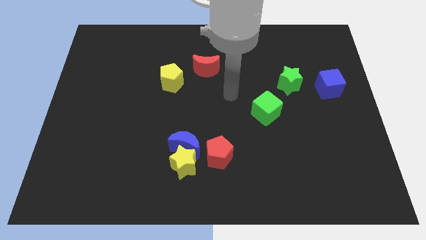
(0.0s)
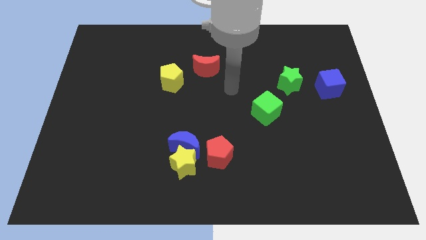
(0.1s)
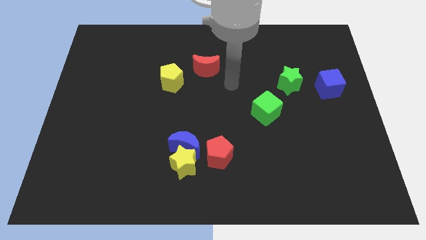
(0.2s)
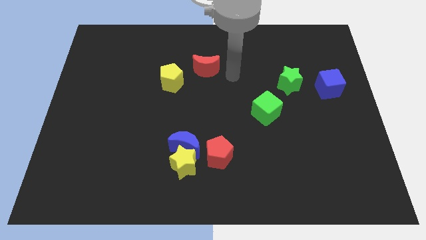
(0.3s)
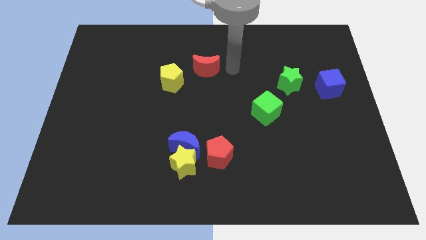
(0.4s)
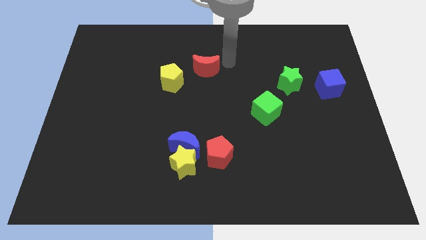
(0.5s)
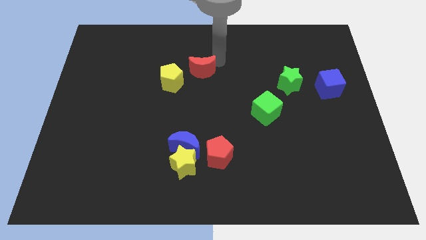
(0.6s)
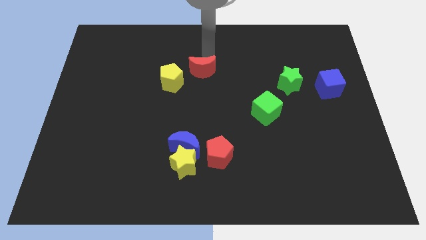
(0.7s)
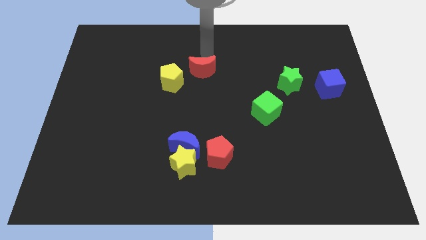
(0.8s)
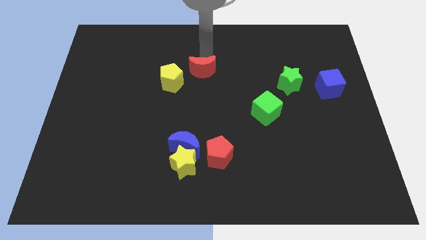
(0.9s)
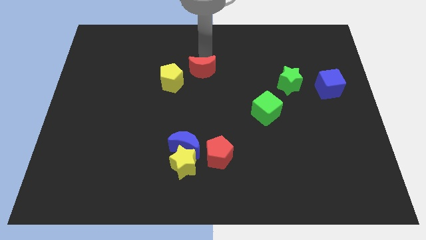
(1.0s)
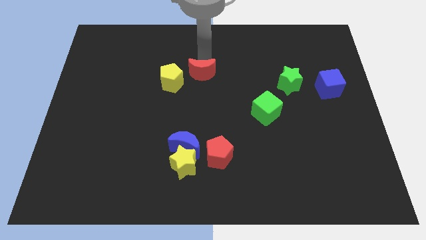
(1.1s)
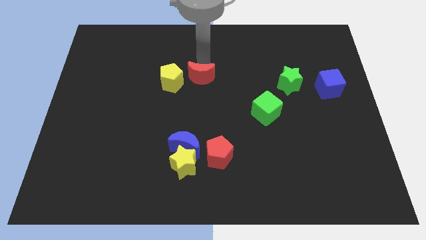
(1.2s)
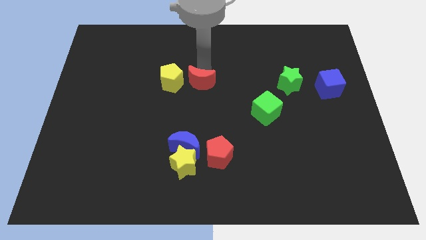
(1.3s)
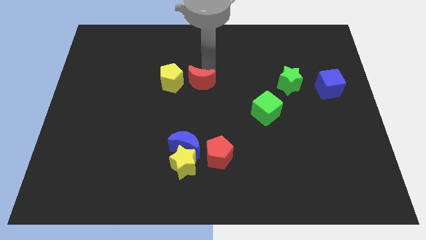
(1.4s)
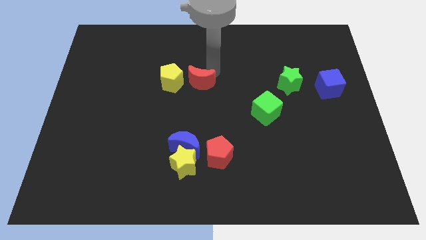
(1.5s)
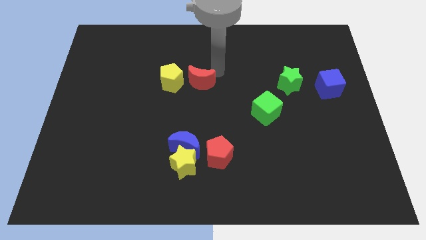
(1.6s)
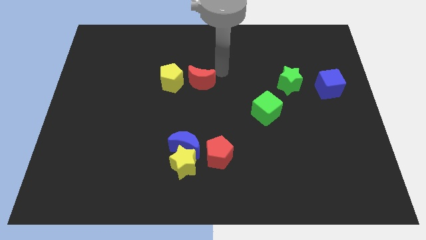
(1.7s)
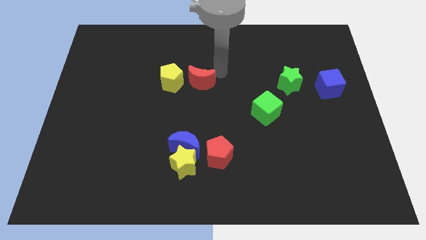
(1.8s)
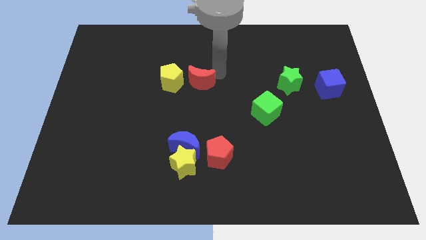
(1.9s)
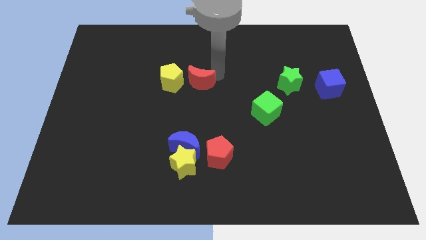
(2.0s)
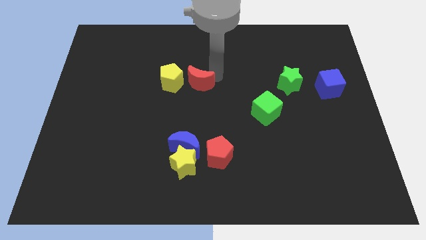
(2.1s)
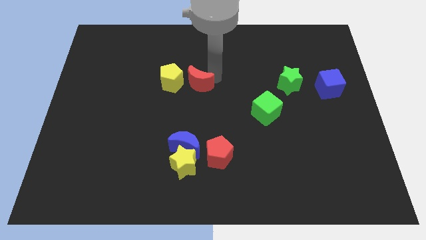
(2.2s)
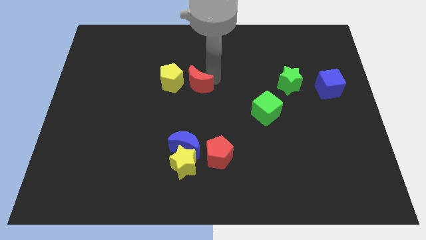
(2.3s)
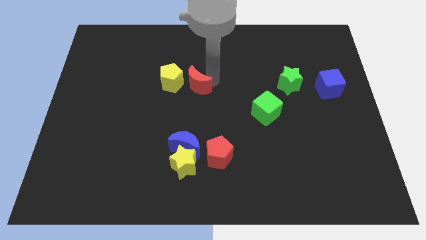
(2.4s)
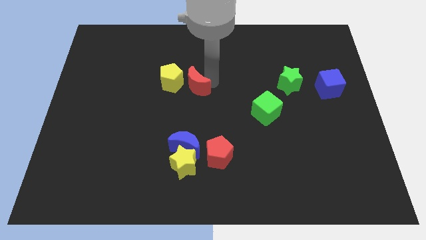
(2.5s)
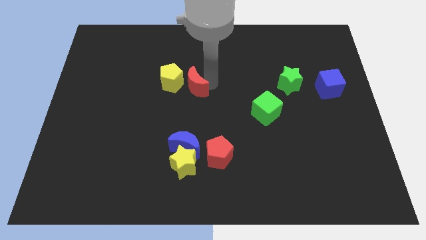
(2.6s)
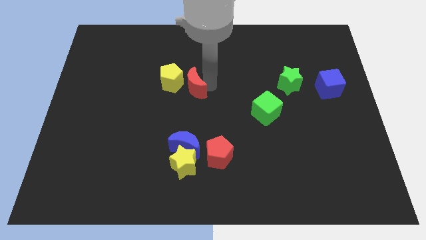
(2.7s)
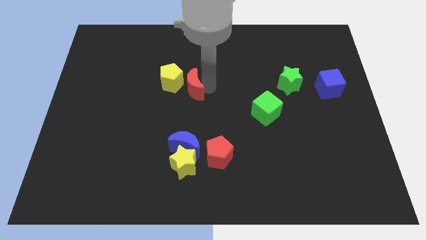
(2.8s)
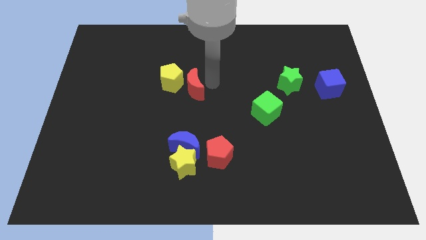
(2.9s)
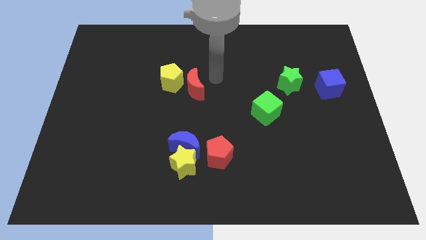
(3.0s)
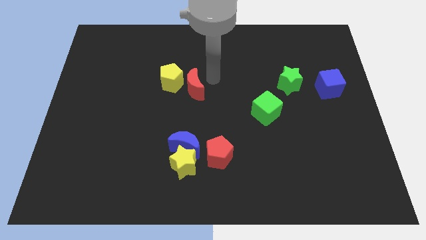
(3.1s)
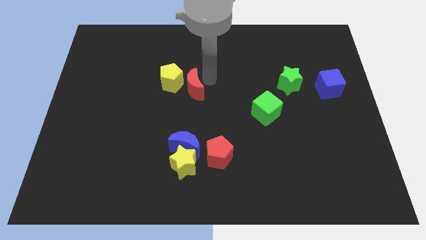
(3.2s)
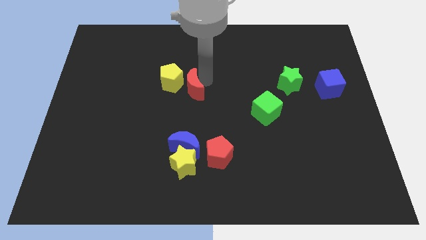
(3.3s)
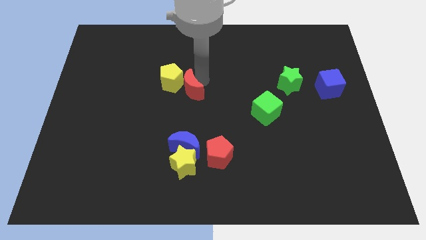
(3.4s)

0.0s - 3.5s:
move the red moon a little downwards and to the left

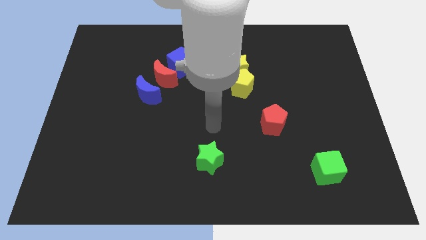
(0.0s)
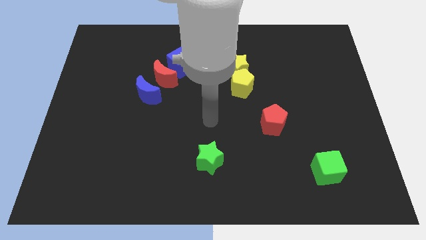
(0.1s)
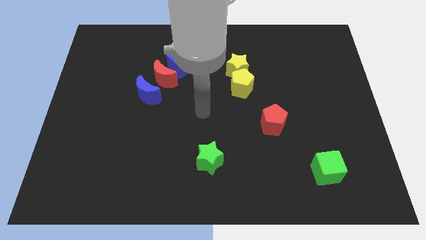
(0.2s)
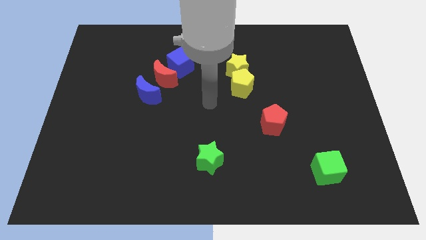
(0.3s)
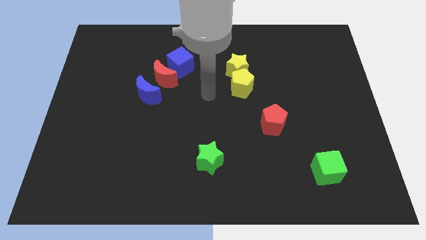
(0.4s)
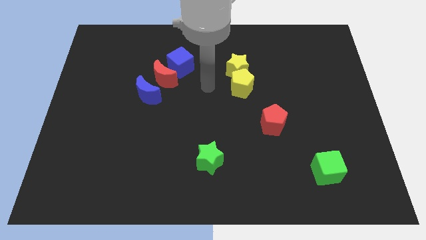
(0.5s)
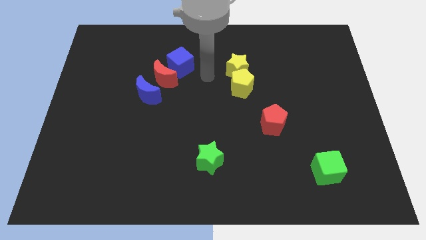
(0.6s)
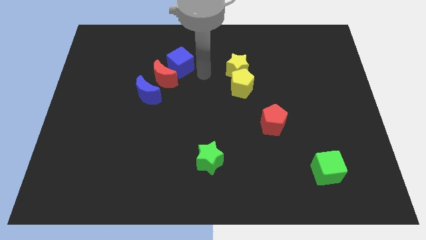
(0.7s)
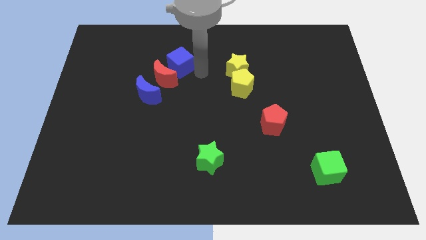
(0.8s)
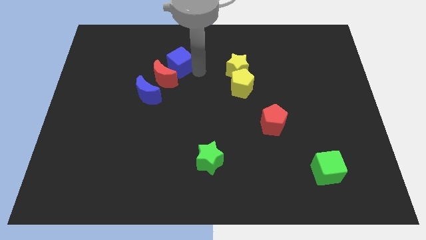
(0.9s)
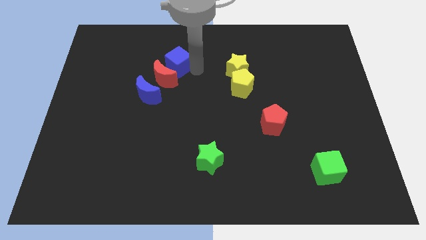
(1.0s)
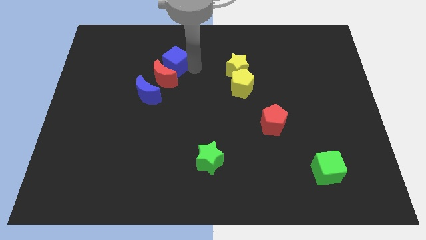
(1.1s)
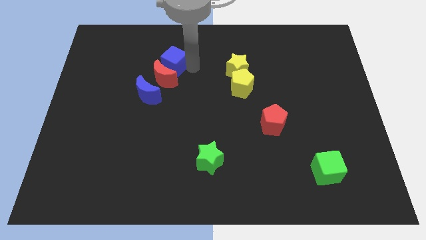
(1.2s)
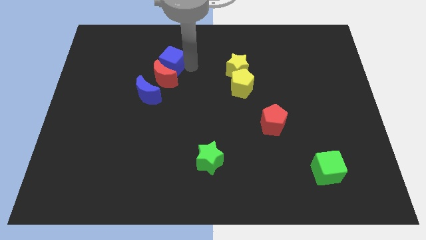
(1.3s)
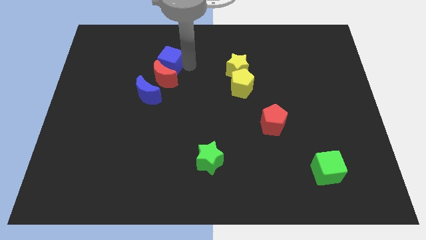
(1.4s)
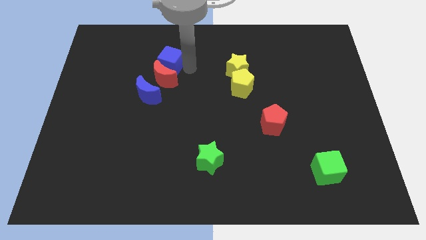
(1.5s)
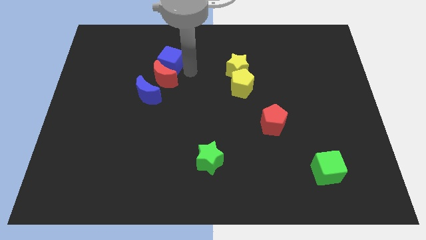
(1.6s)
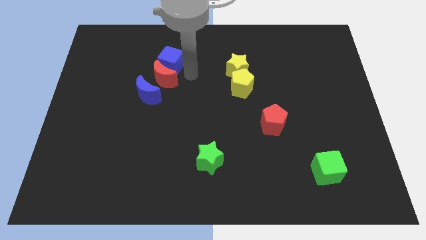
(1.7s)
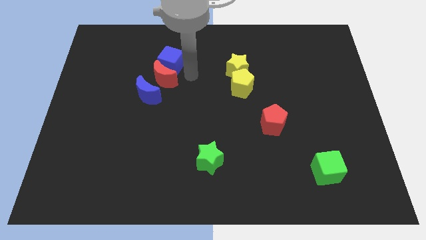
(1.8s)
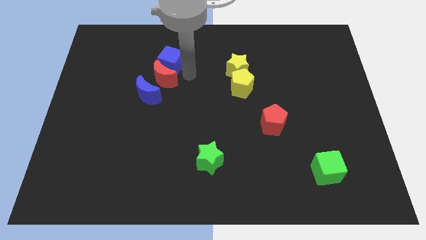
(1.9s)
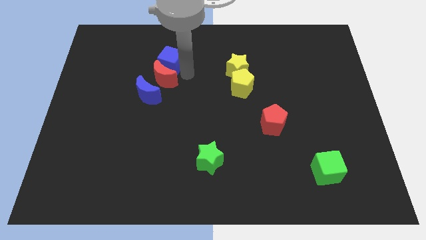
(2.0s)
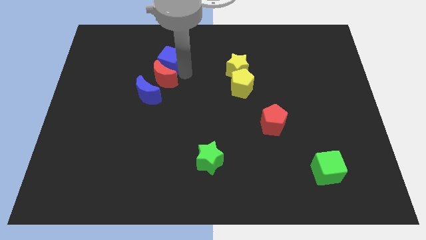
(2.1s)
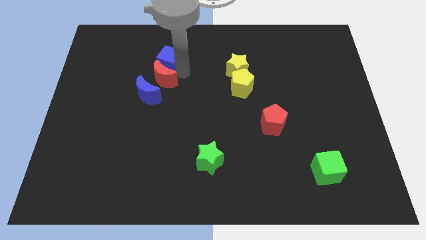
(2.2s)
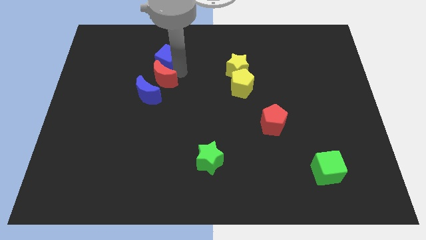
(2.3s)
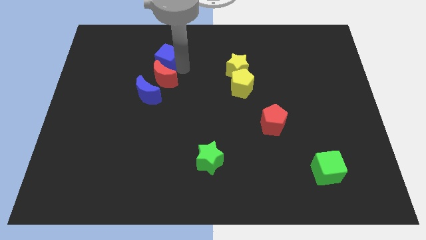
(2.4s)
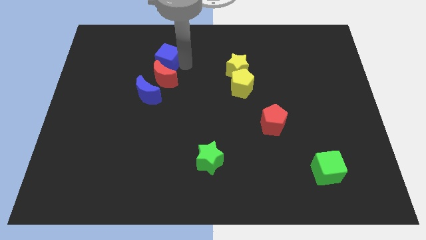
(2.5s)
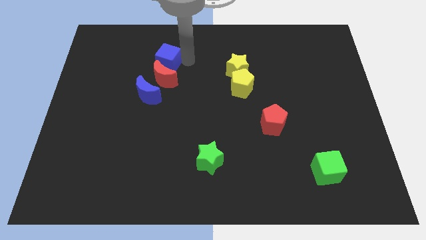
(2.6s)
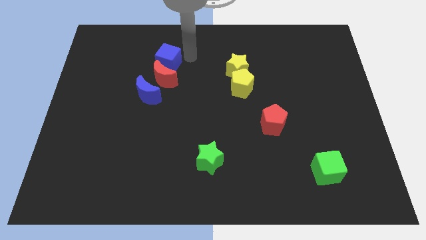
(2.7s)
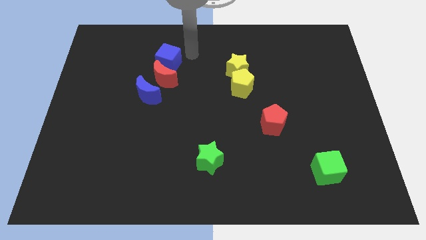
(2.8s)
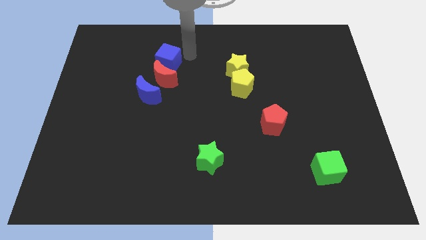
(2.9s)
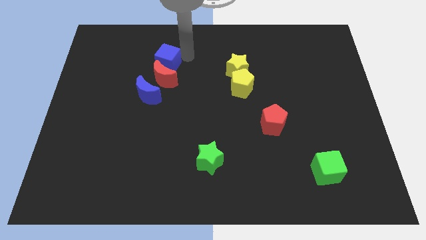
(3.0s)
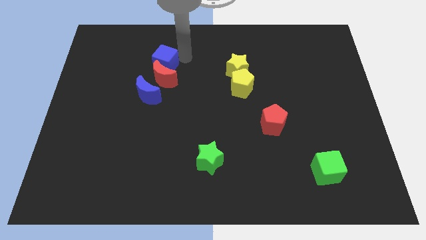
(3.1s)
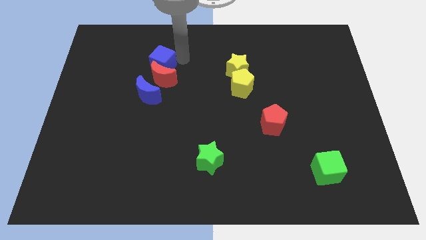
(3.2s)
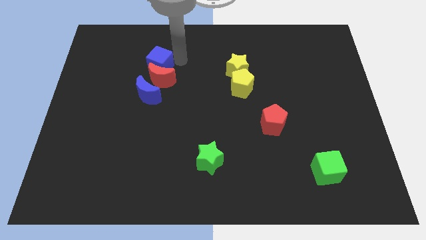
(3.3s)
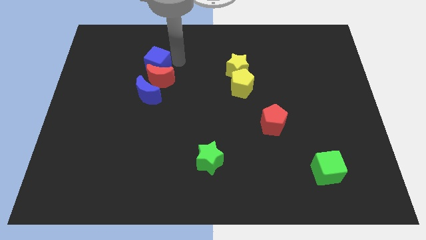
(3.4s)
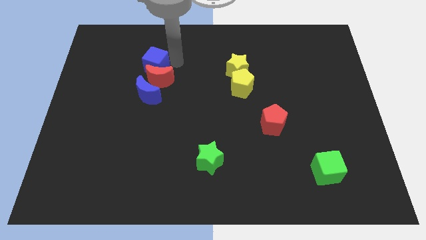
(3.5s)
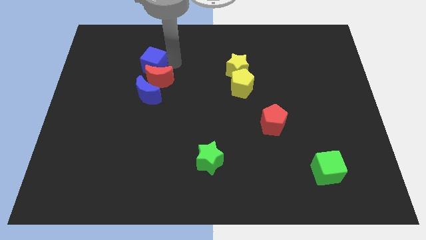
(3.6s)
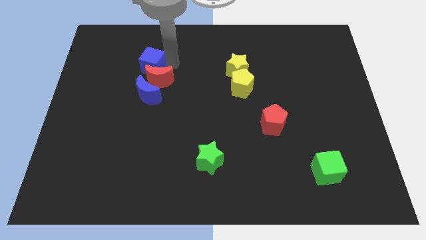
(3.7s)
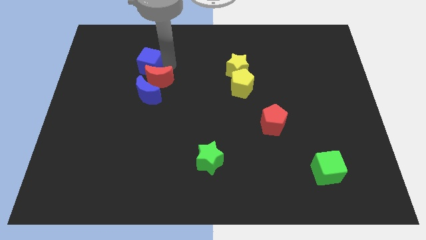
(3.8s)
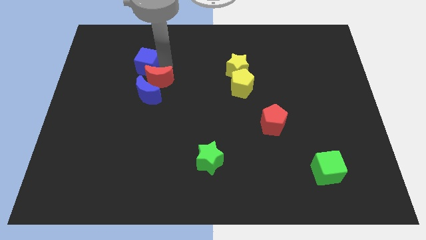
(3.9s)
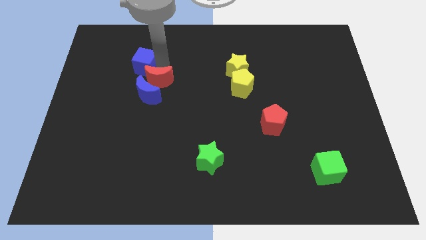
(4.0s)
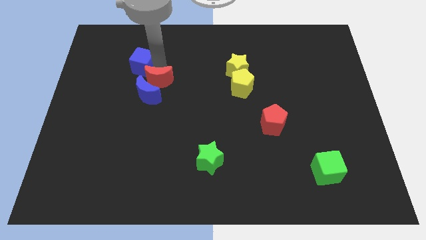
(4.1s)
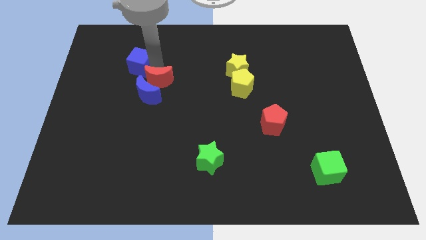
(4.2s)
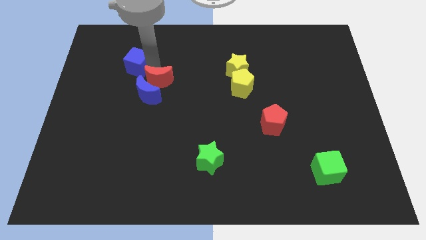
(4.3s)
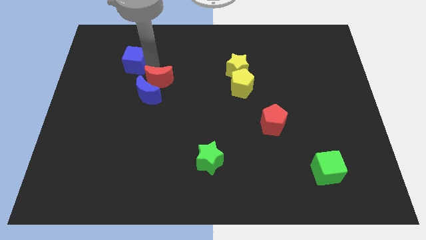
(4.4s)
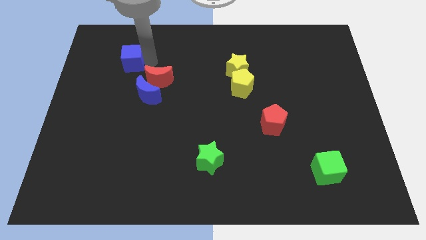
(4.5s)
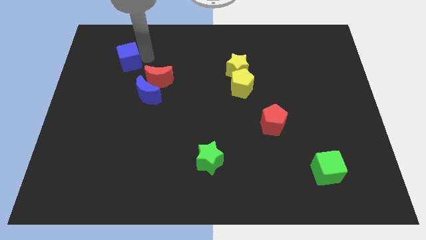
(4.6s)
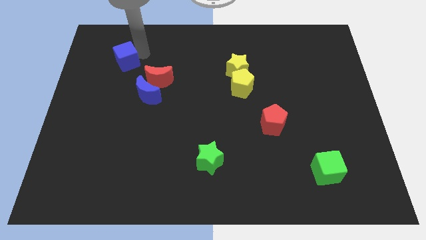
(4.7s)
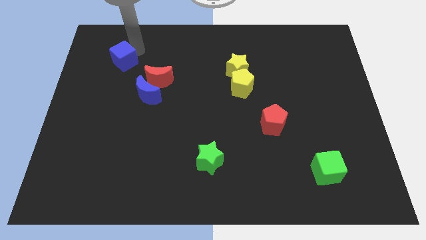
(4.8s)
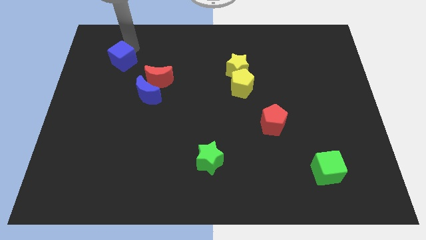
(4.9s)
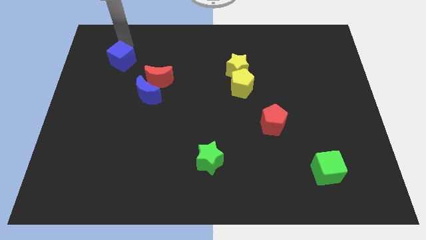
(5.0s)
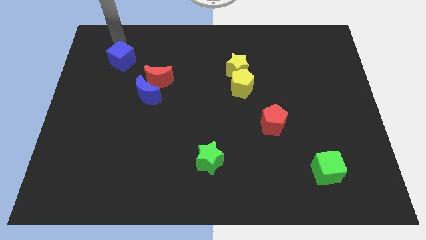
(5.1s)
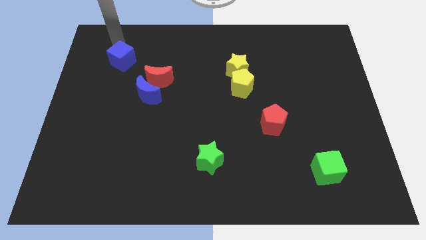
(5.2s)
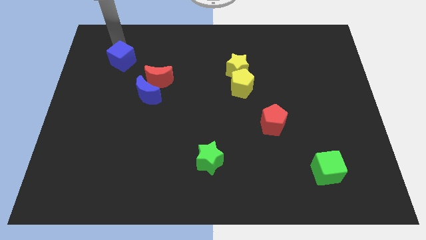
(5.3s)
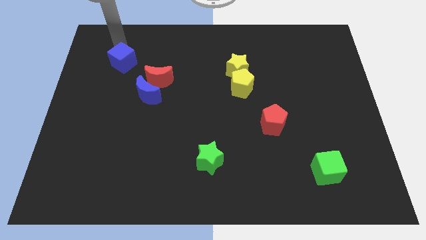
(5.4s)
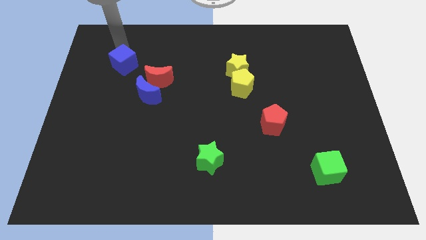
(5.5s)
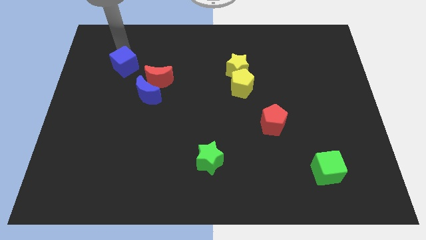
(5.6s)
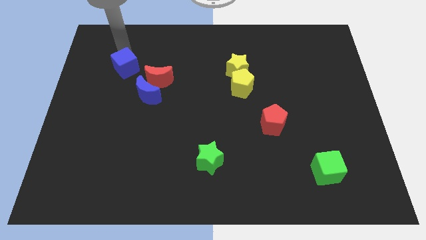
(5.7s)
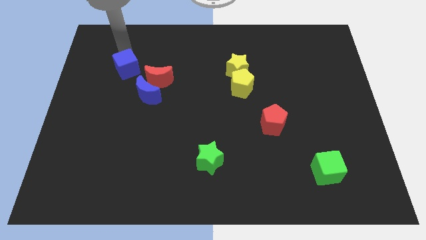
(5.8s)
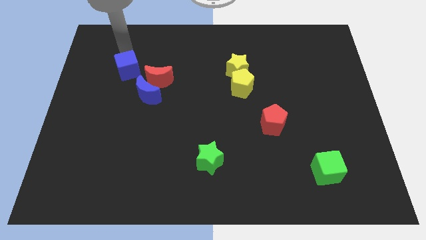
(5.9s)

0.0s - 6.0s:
slide the blue cube a little downwards and to the left
